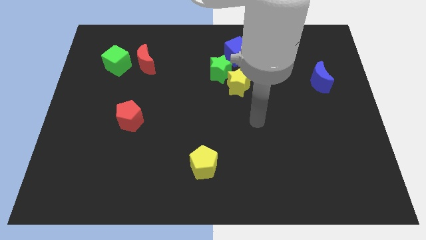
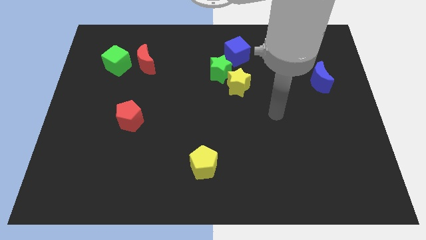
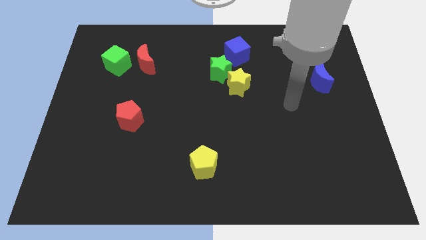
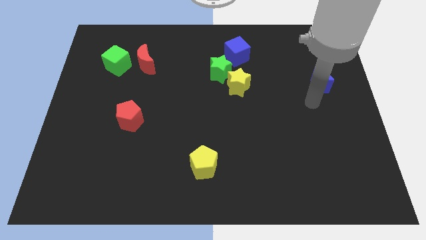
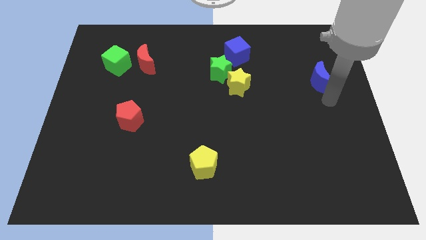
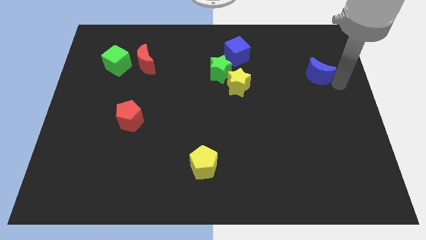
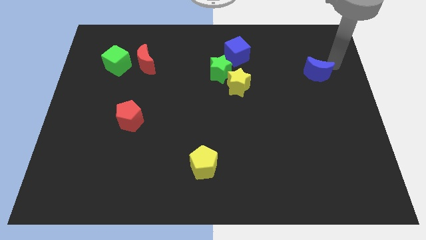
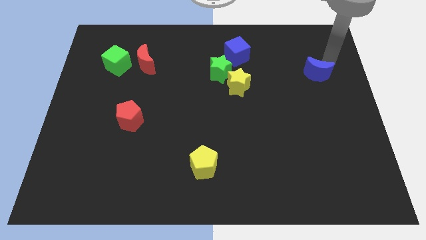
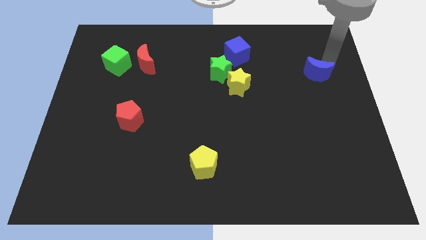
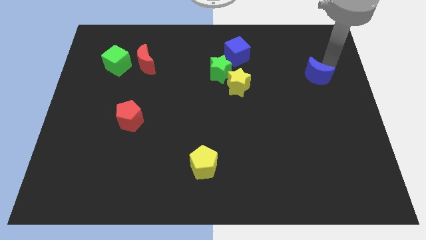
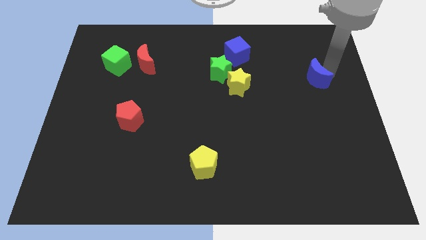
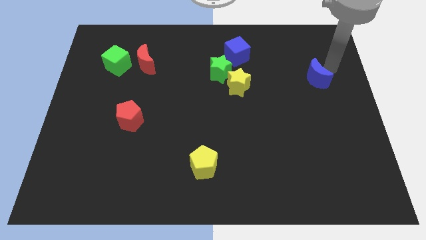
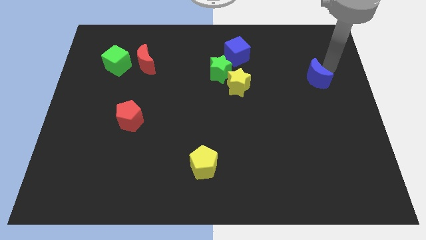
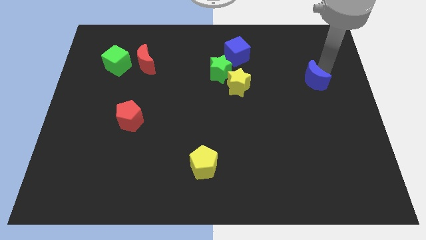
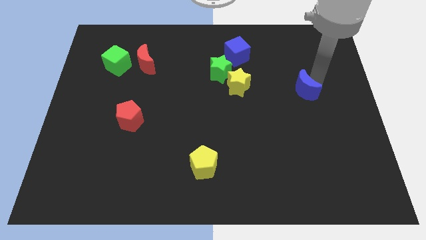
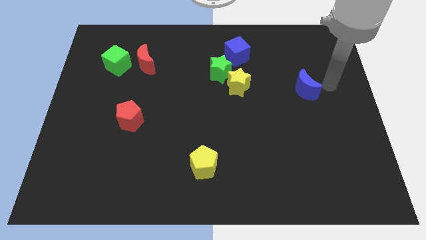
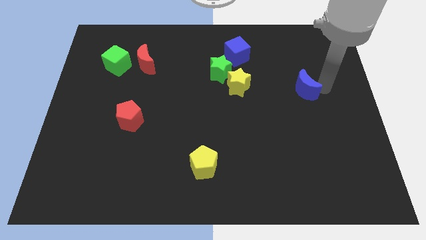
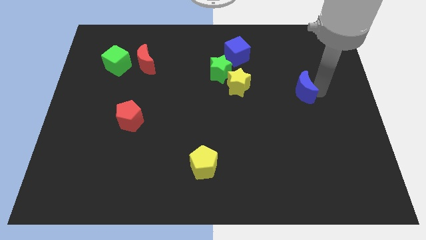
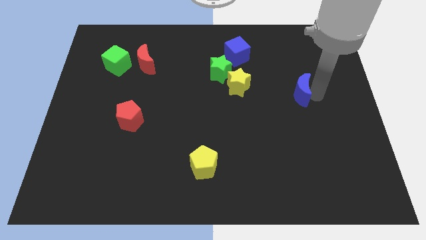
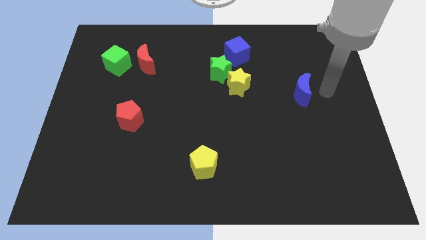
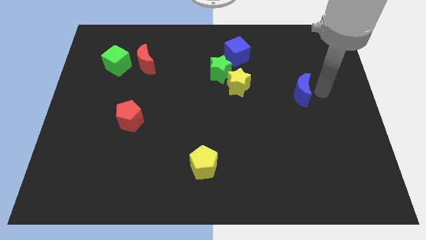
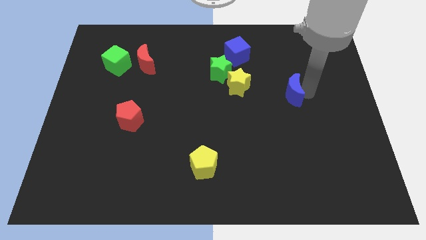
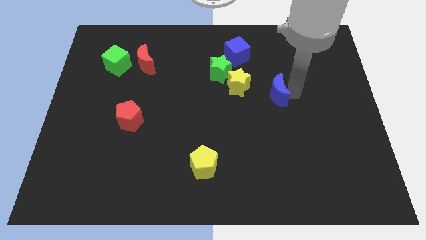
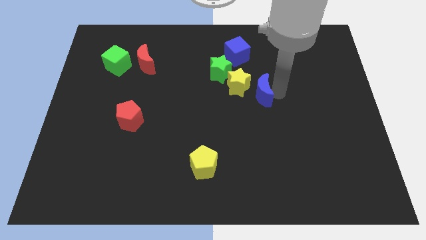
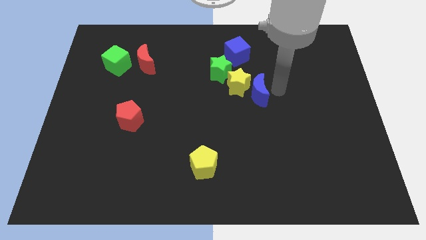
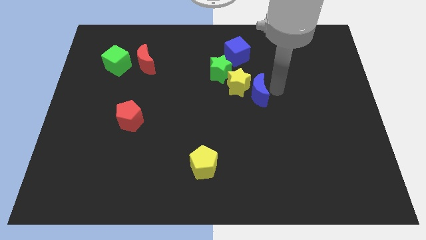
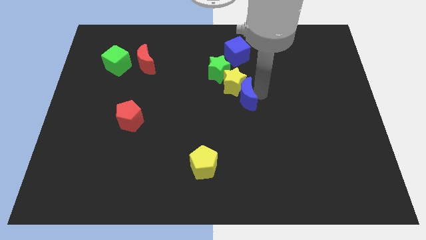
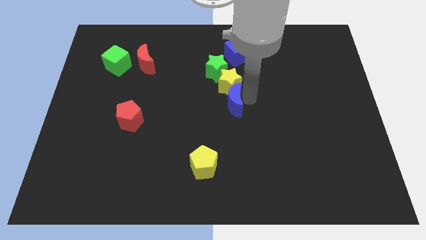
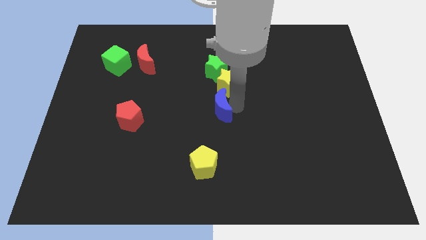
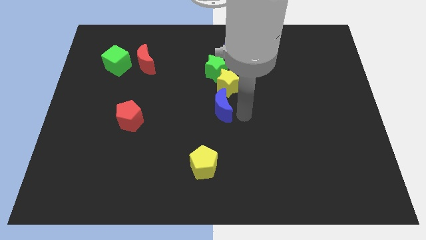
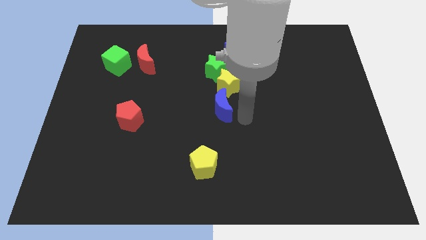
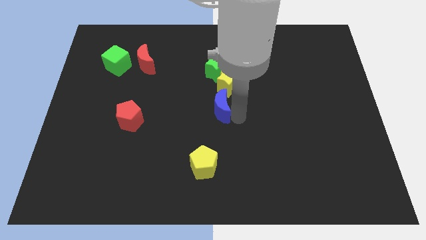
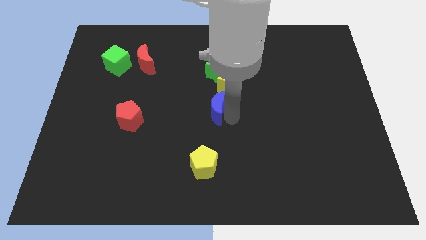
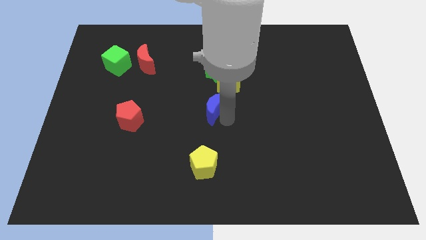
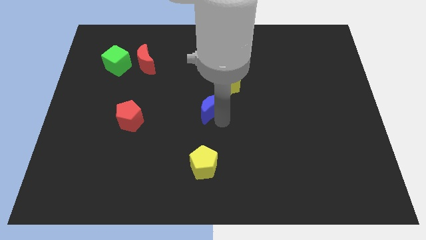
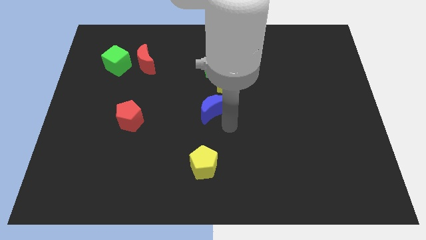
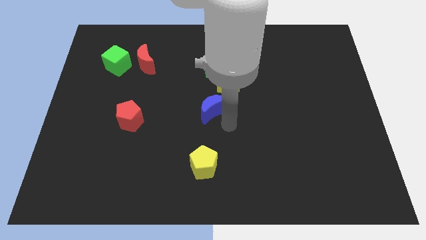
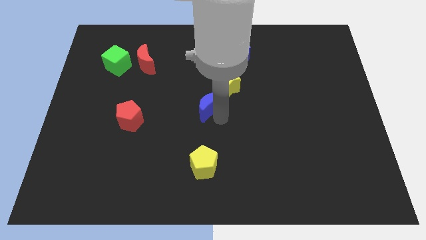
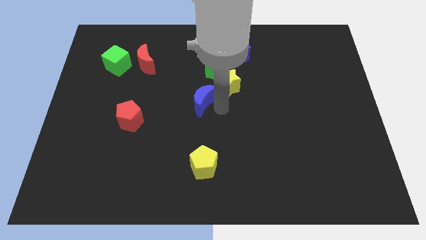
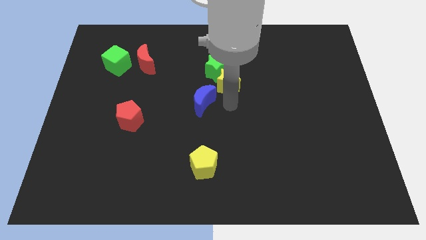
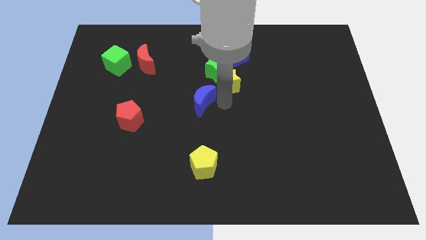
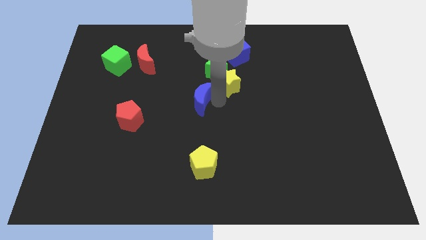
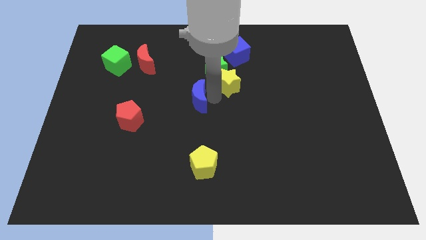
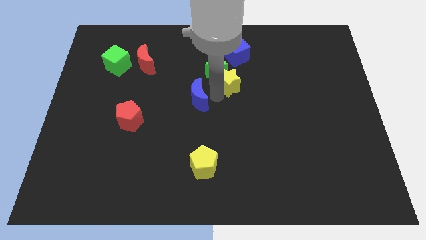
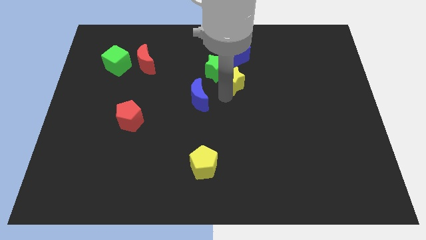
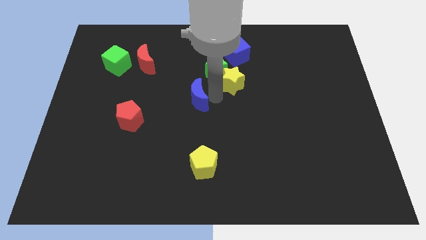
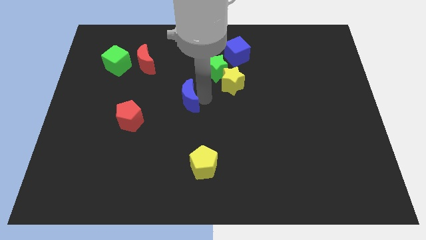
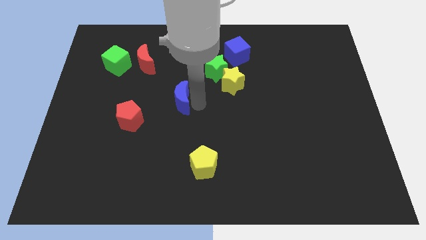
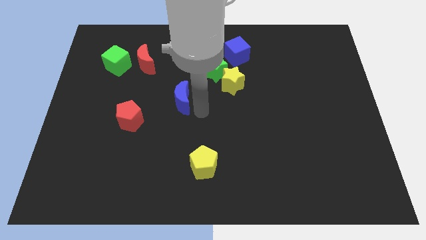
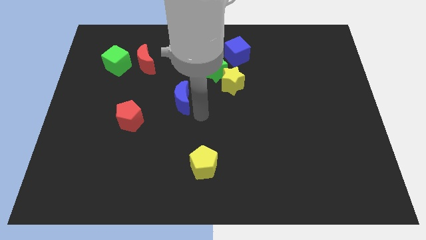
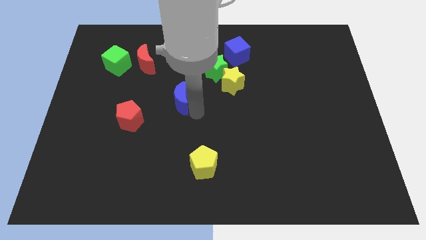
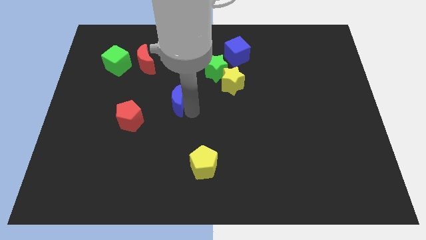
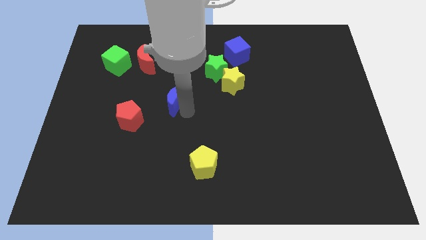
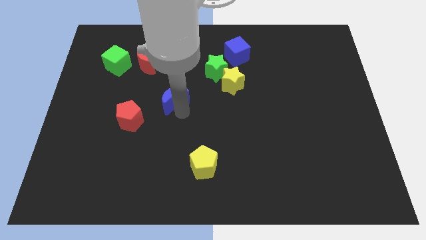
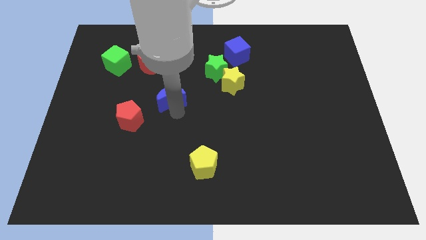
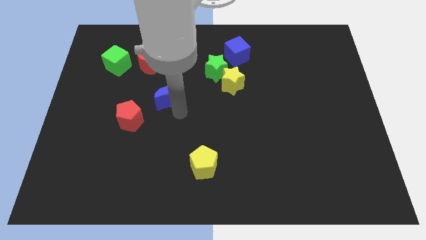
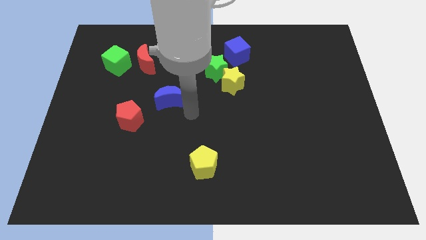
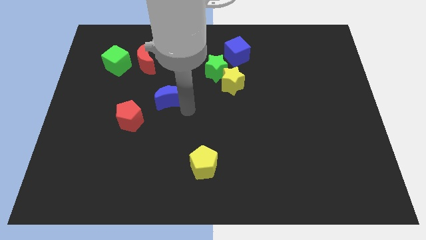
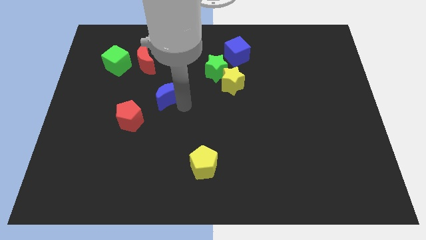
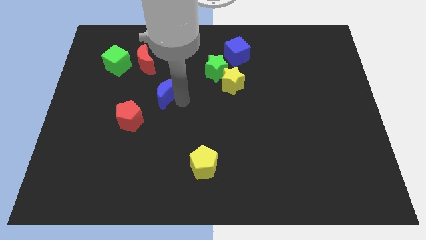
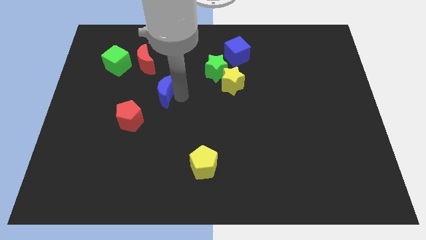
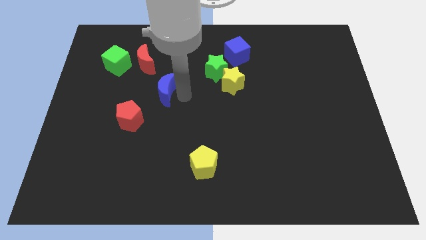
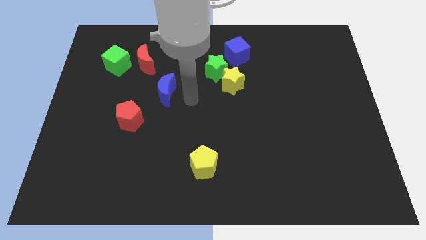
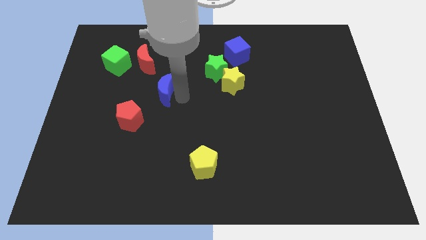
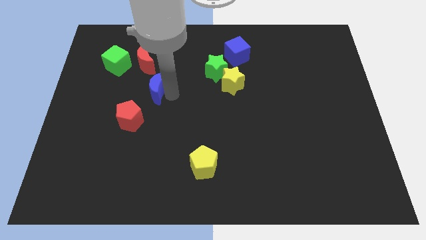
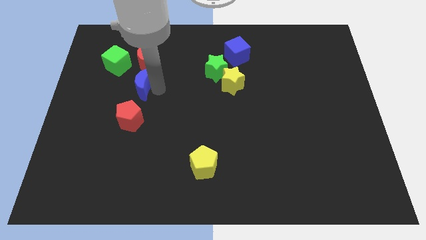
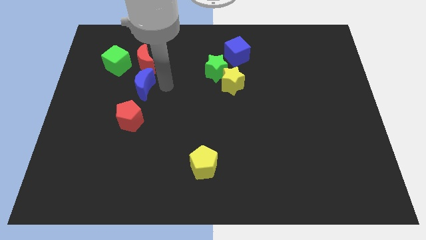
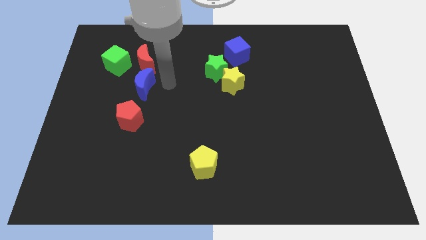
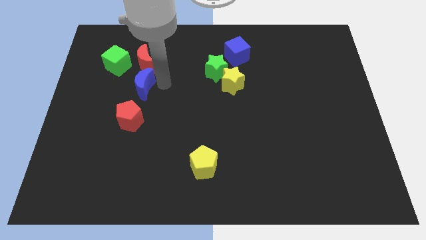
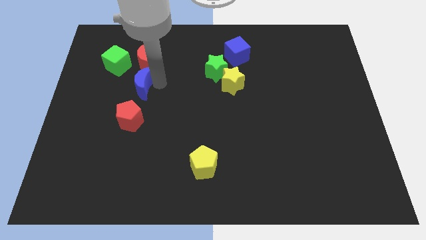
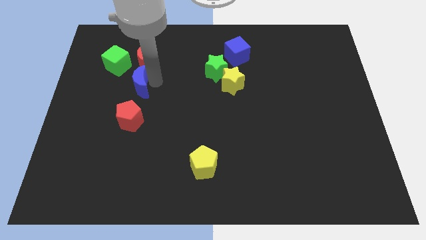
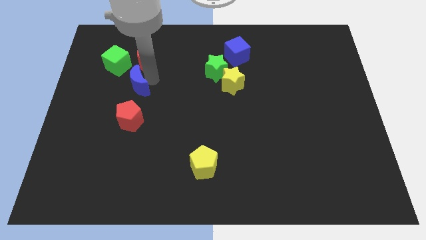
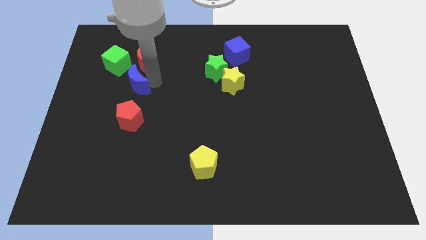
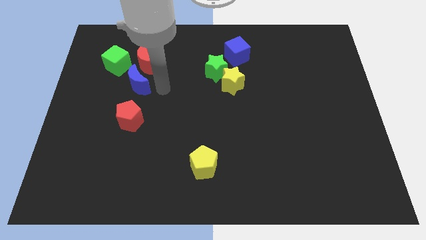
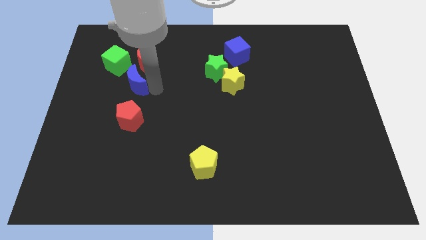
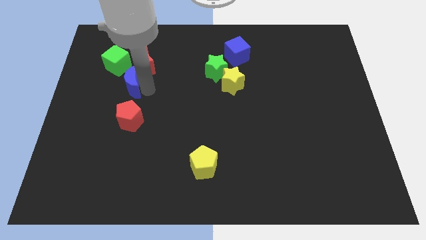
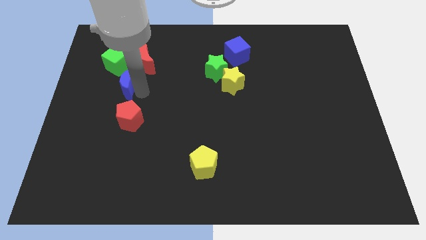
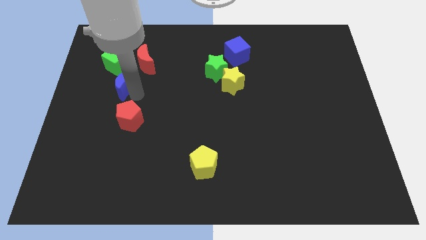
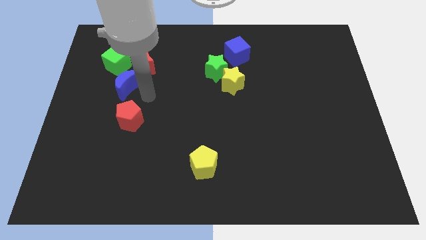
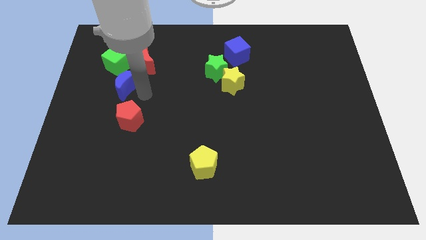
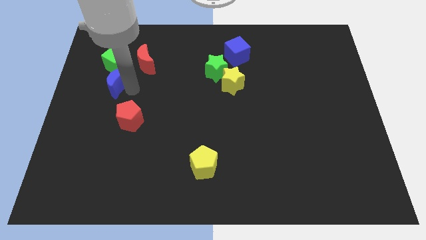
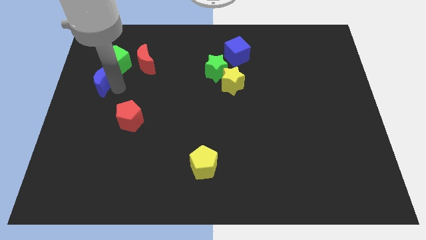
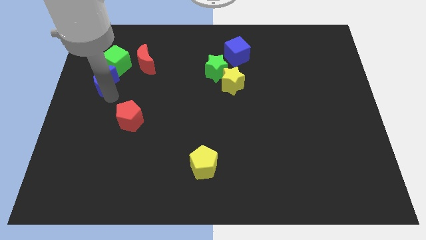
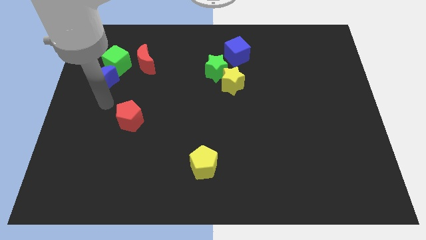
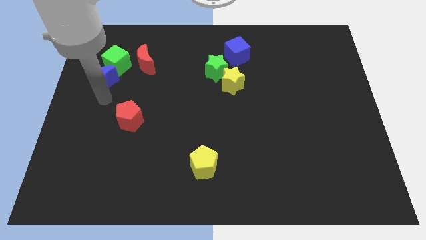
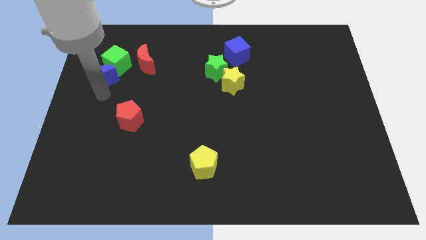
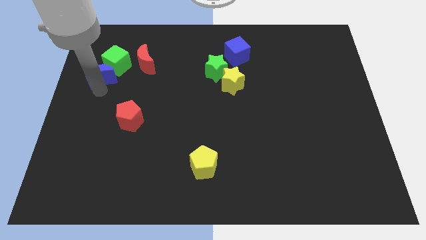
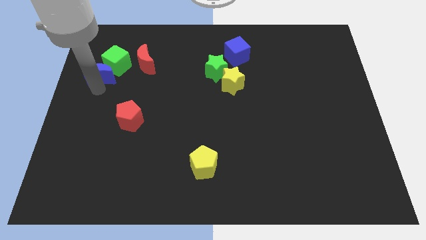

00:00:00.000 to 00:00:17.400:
slide the blue moon to the left side of the red moon
